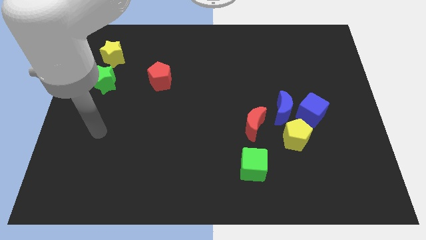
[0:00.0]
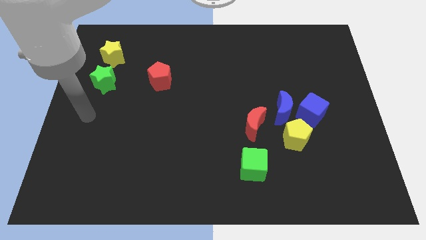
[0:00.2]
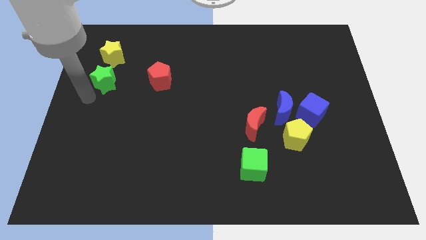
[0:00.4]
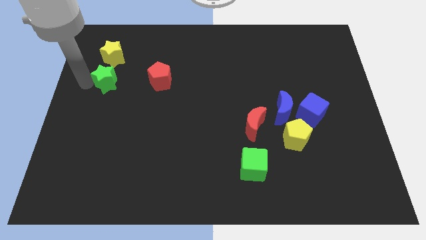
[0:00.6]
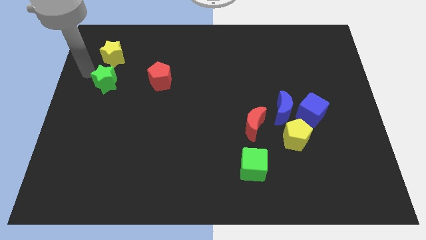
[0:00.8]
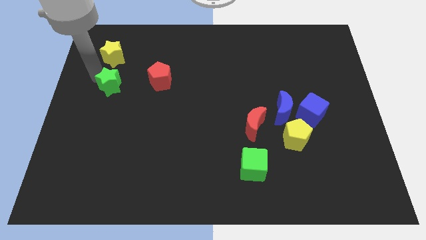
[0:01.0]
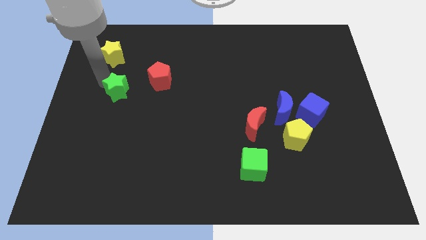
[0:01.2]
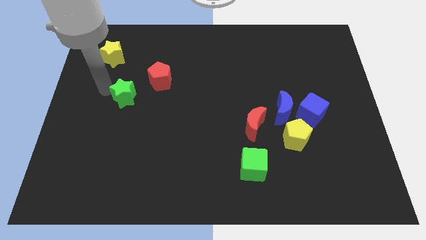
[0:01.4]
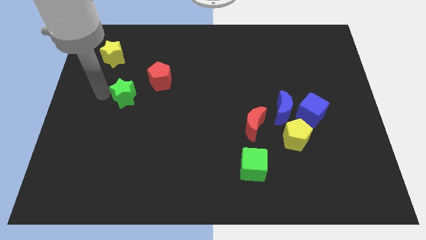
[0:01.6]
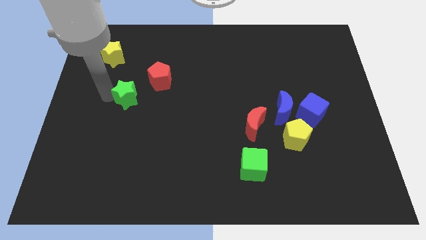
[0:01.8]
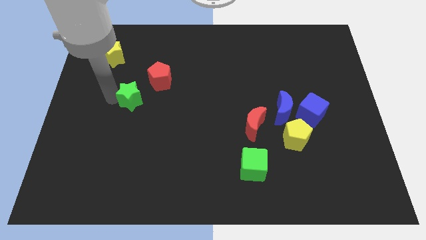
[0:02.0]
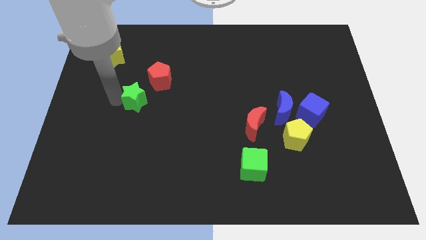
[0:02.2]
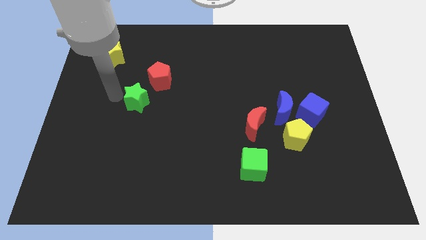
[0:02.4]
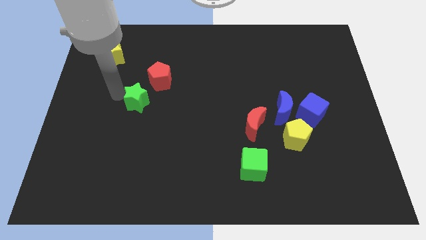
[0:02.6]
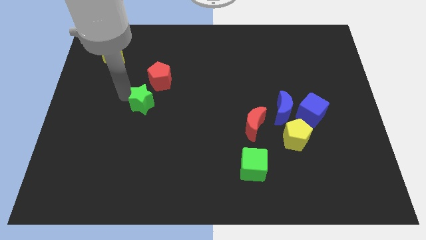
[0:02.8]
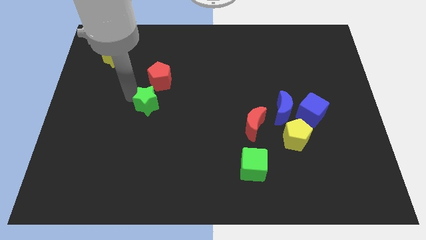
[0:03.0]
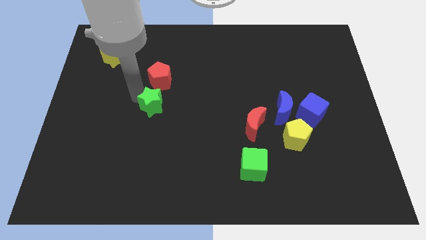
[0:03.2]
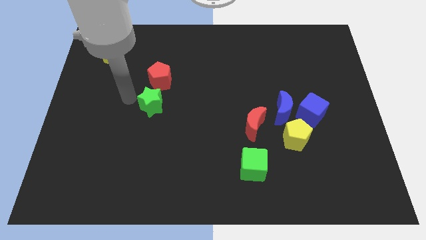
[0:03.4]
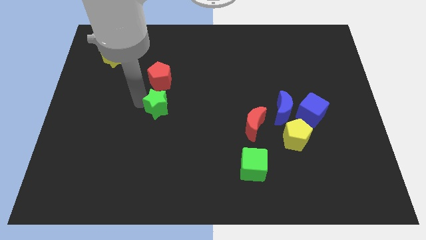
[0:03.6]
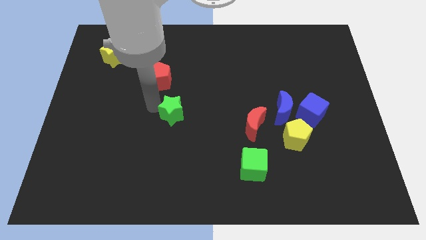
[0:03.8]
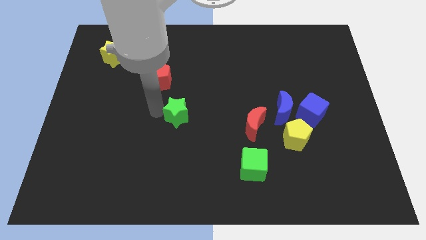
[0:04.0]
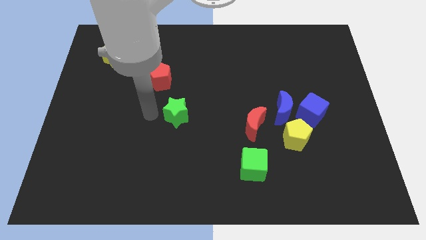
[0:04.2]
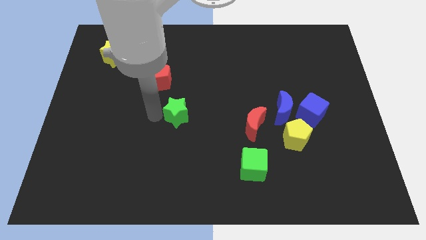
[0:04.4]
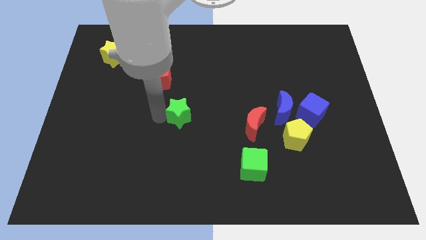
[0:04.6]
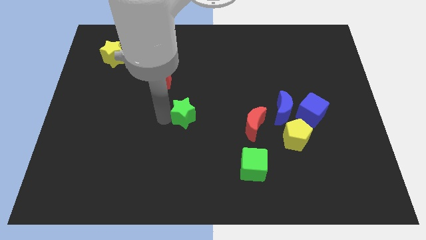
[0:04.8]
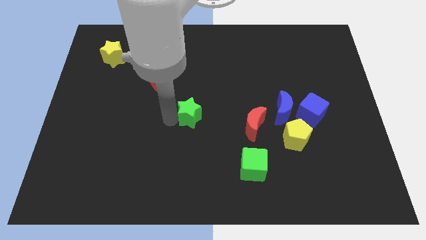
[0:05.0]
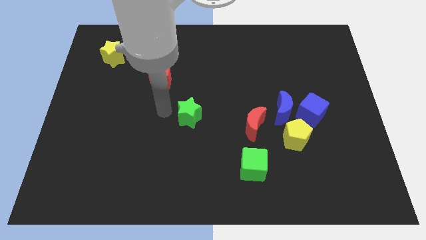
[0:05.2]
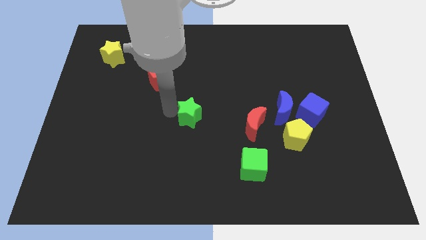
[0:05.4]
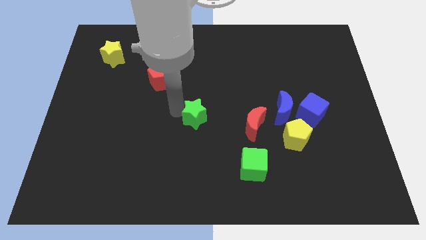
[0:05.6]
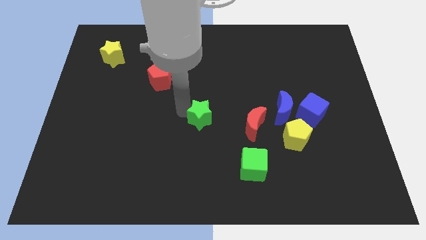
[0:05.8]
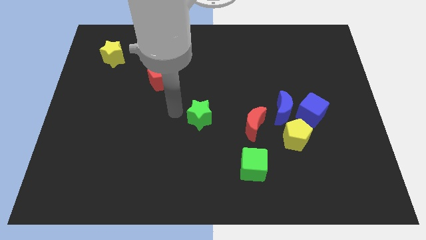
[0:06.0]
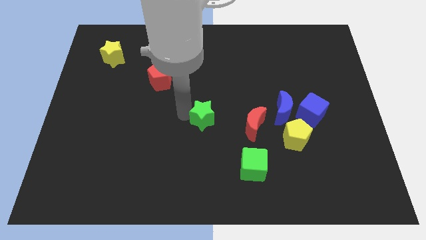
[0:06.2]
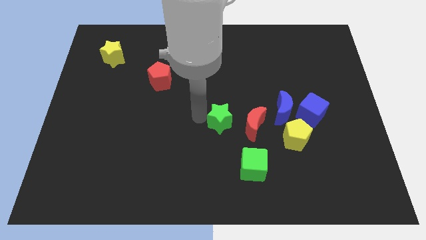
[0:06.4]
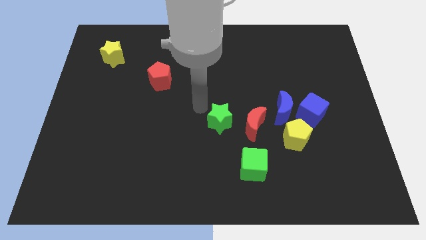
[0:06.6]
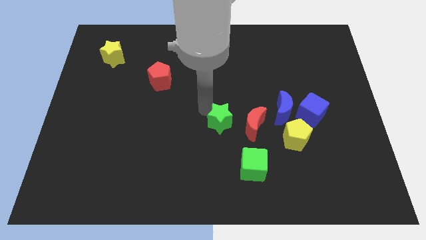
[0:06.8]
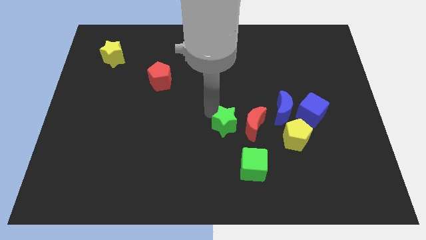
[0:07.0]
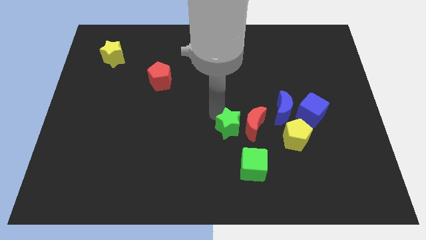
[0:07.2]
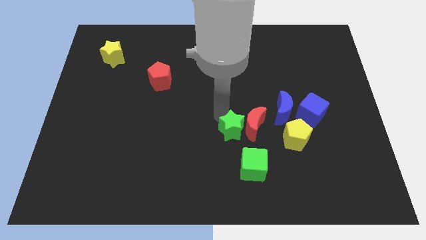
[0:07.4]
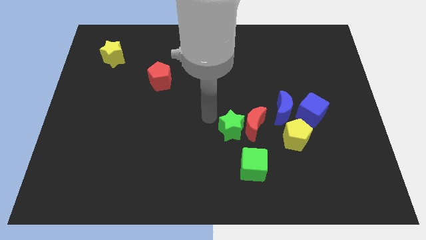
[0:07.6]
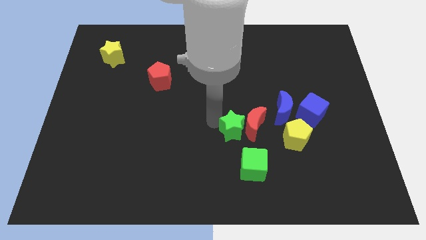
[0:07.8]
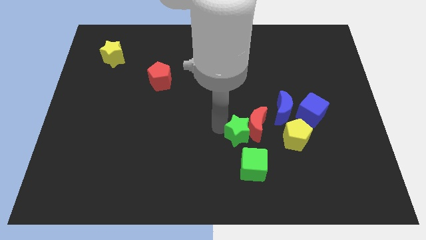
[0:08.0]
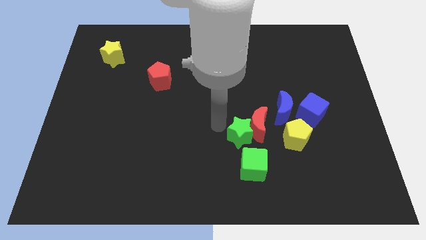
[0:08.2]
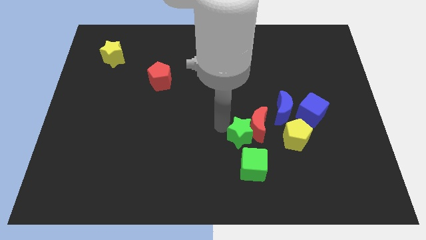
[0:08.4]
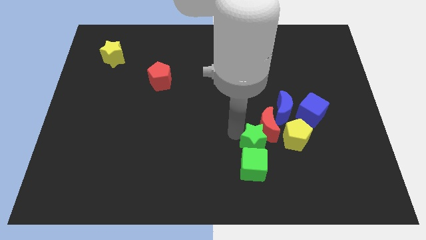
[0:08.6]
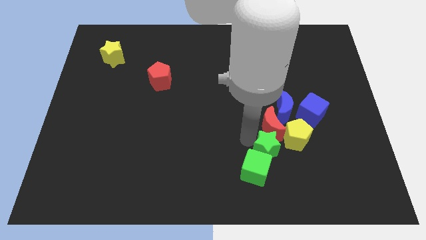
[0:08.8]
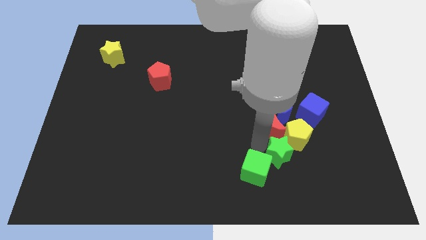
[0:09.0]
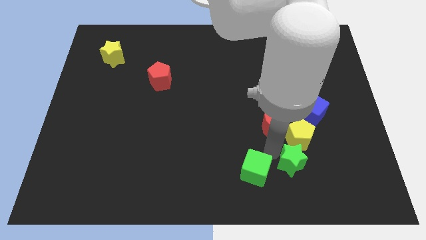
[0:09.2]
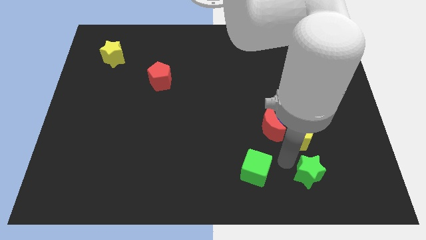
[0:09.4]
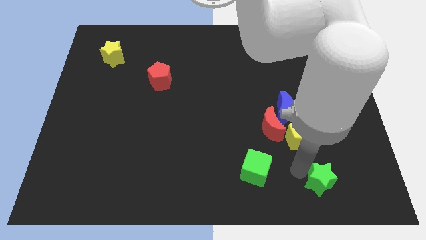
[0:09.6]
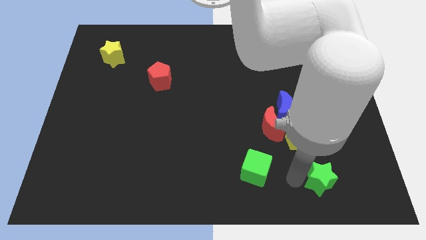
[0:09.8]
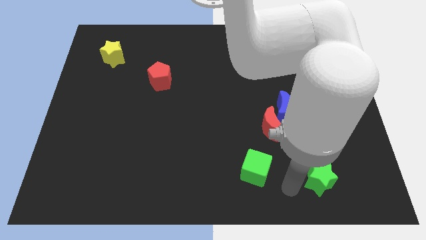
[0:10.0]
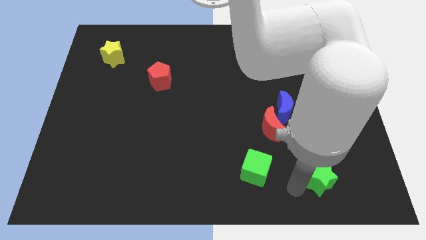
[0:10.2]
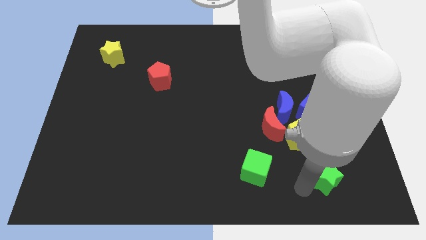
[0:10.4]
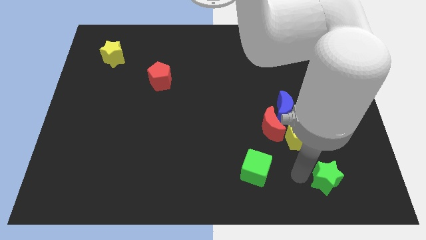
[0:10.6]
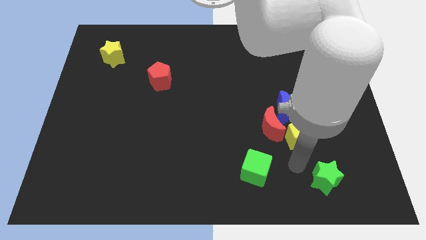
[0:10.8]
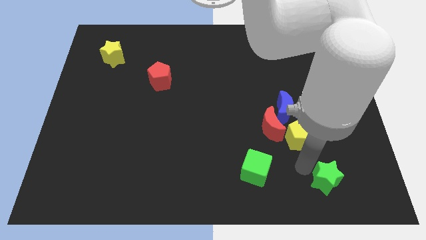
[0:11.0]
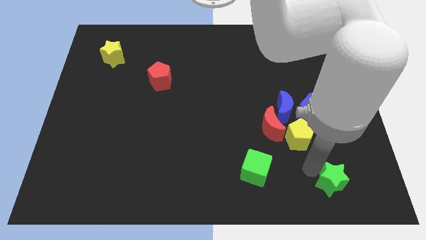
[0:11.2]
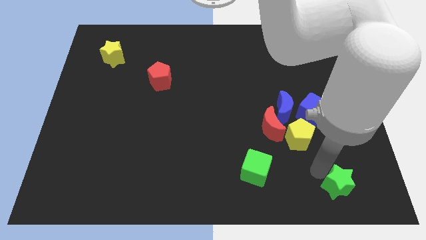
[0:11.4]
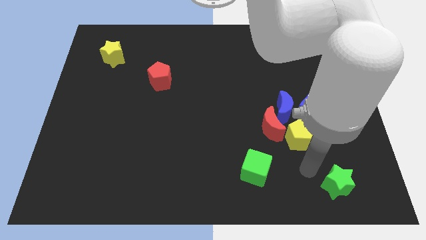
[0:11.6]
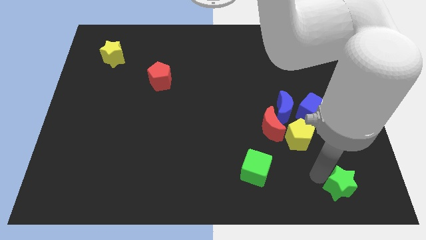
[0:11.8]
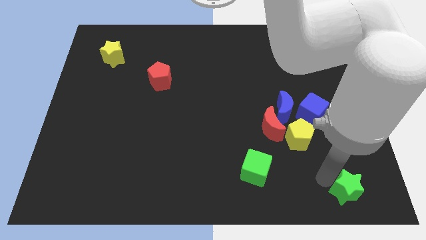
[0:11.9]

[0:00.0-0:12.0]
slide the green star to the bottom right of the board

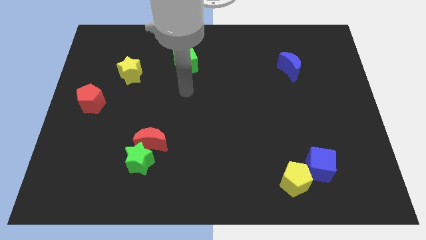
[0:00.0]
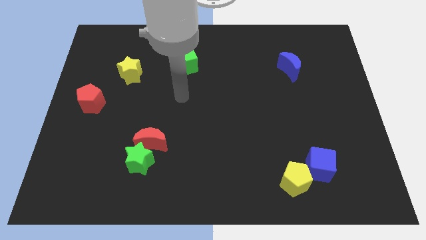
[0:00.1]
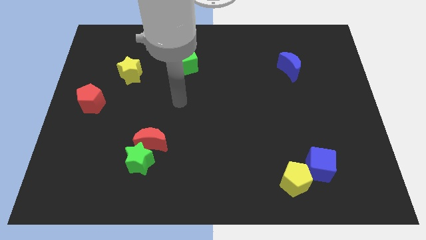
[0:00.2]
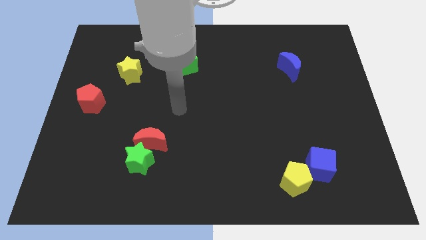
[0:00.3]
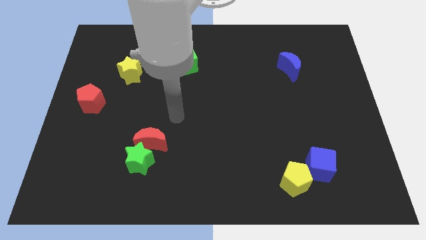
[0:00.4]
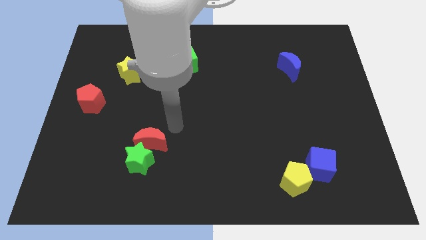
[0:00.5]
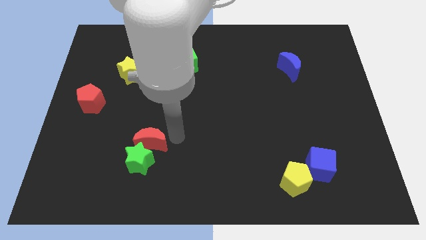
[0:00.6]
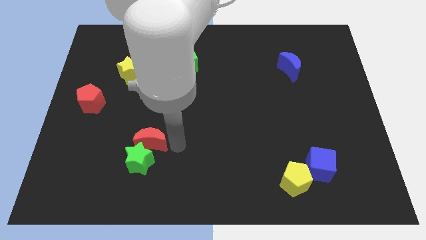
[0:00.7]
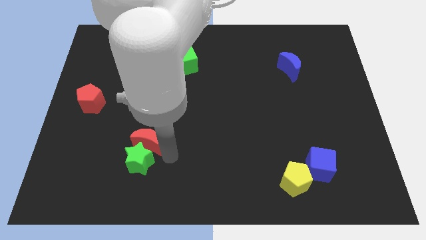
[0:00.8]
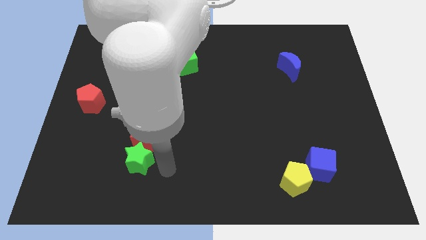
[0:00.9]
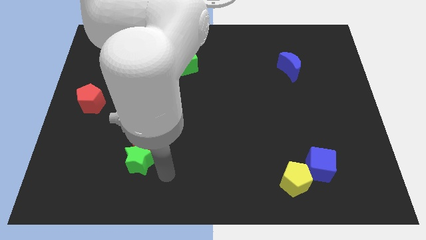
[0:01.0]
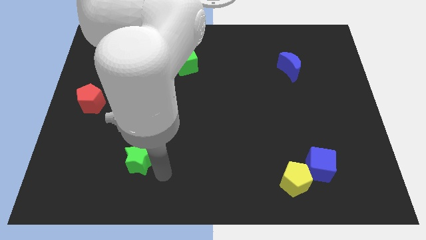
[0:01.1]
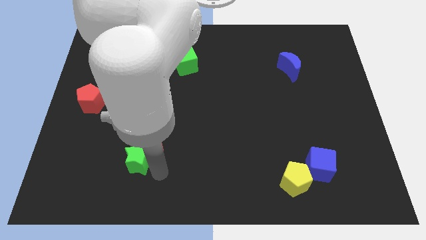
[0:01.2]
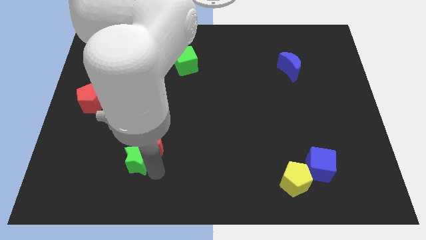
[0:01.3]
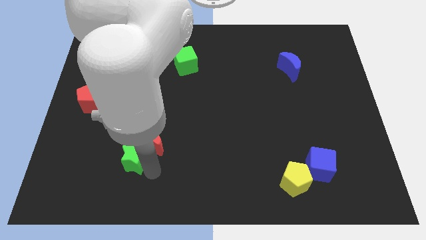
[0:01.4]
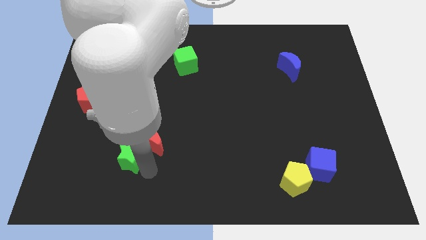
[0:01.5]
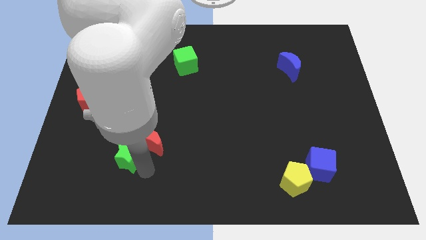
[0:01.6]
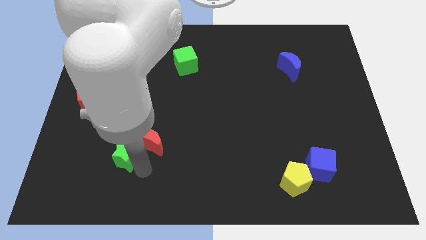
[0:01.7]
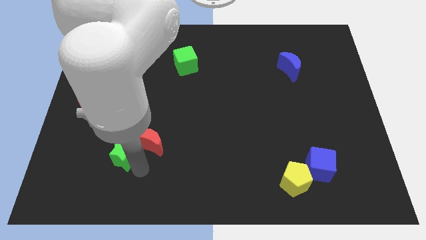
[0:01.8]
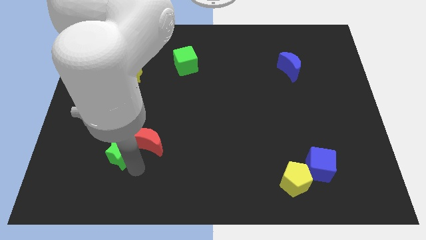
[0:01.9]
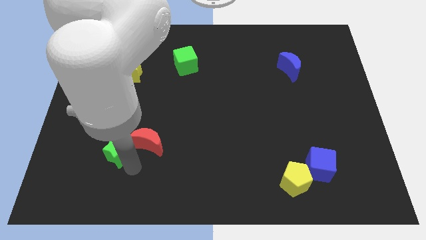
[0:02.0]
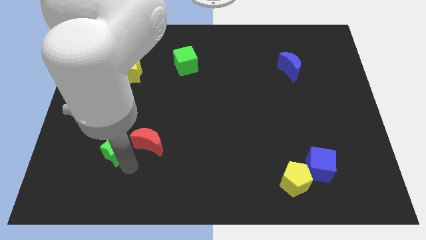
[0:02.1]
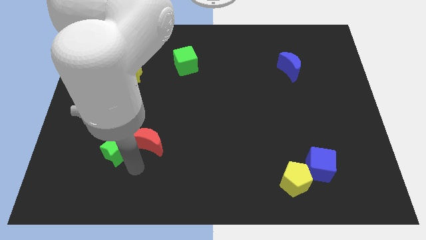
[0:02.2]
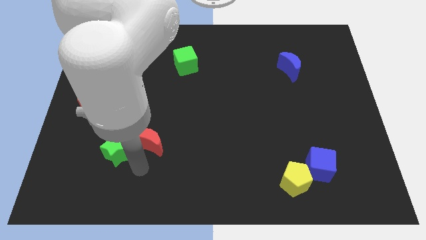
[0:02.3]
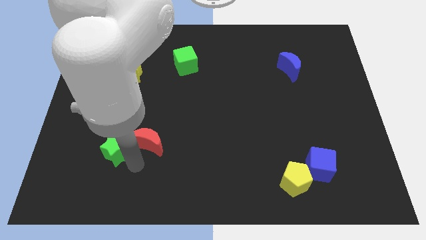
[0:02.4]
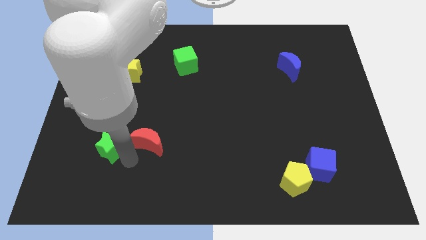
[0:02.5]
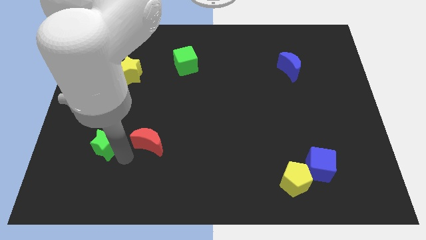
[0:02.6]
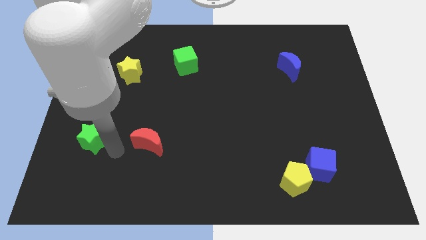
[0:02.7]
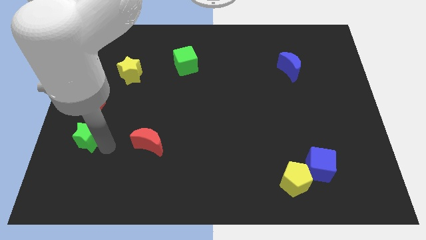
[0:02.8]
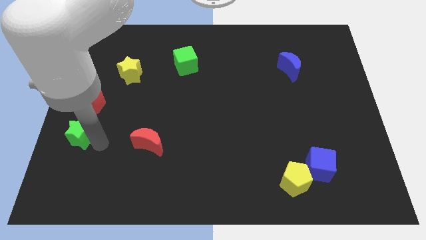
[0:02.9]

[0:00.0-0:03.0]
put the green star to the center left
